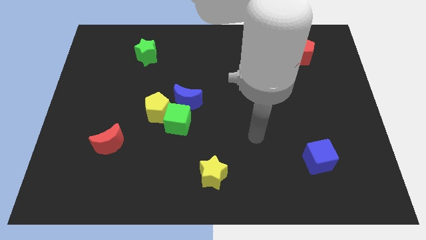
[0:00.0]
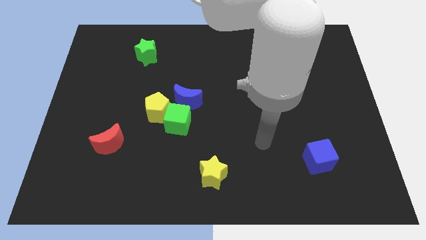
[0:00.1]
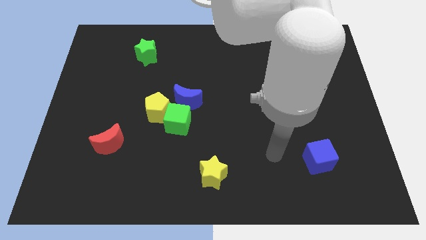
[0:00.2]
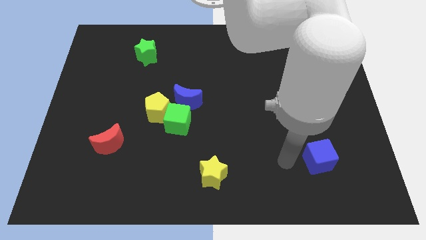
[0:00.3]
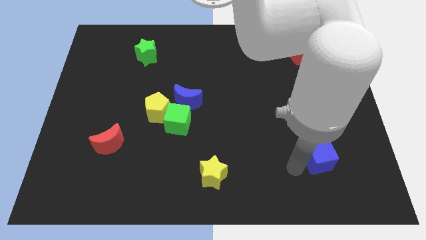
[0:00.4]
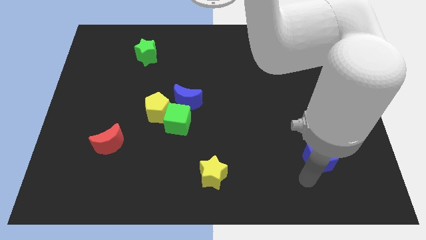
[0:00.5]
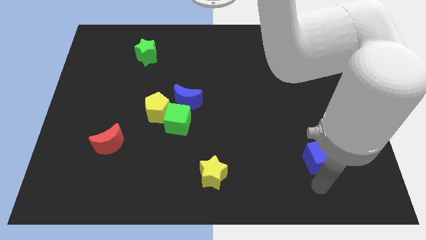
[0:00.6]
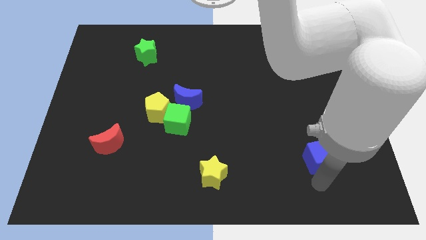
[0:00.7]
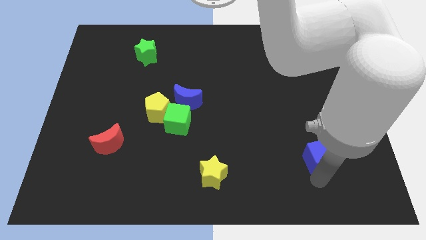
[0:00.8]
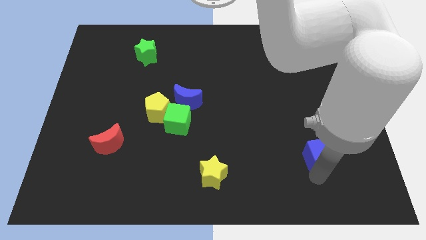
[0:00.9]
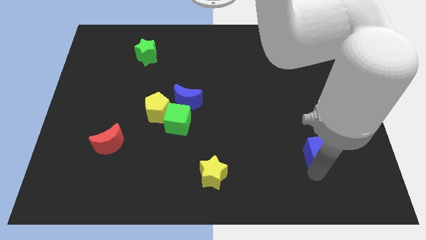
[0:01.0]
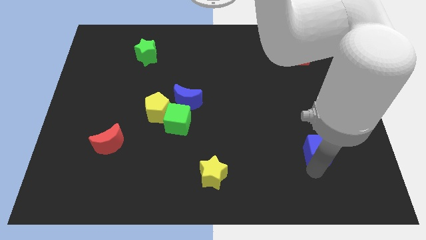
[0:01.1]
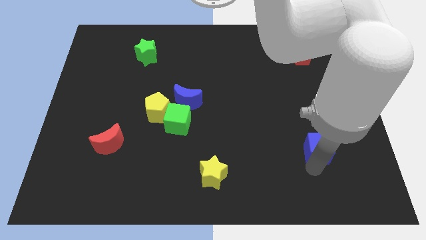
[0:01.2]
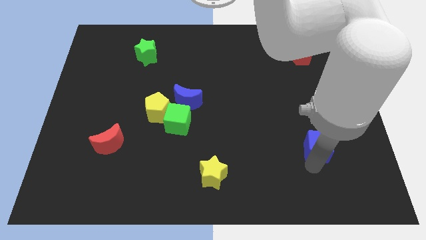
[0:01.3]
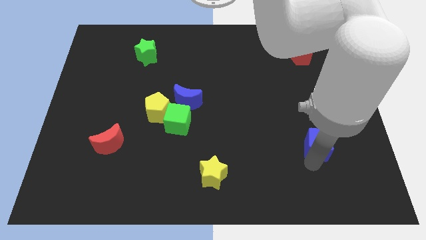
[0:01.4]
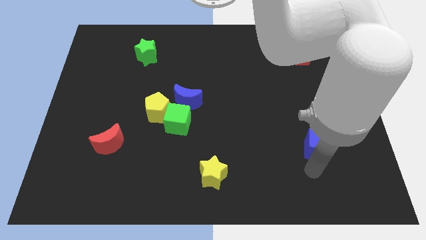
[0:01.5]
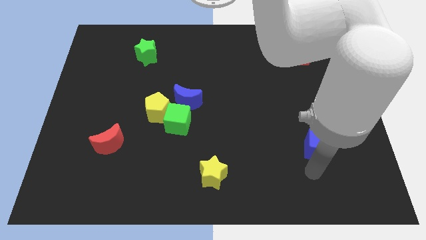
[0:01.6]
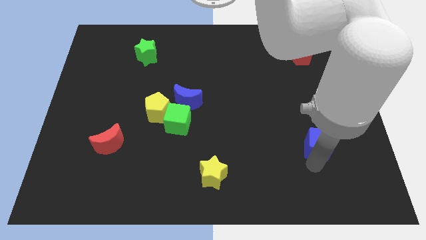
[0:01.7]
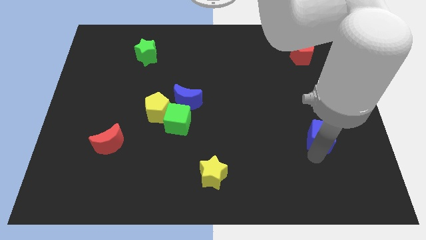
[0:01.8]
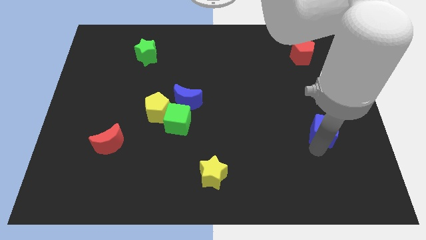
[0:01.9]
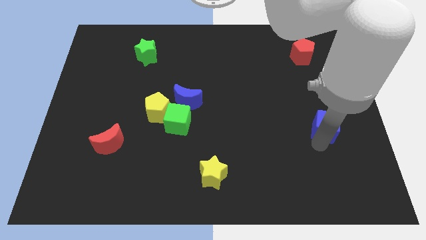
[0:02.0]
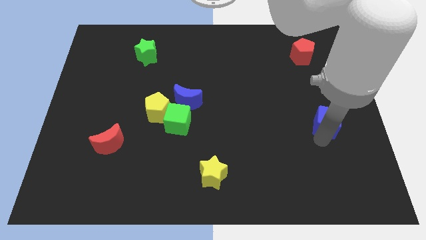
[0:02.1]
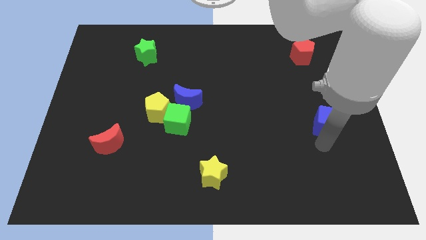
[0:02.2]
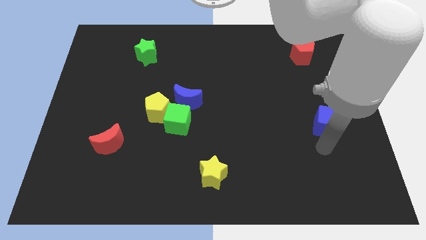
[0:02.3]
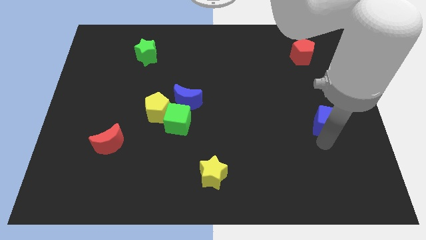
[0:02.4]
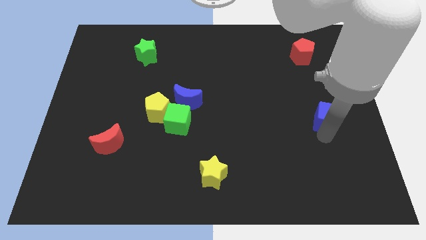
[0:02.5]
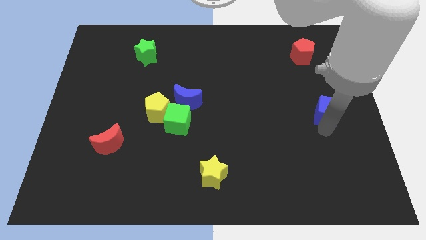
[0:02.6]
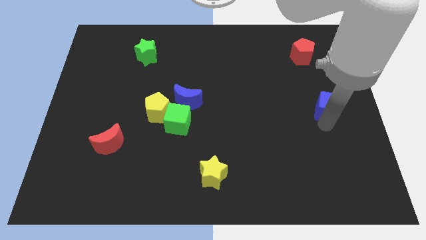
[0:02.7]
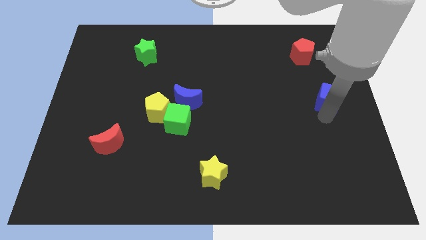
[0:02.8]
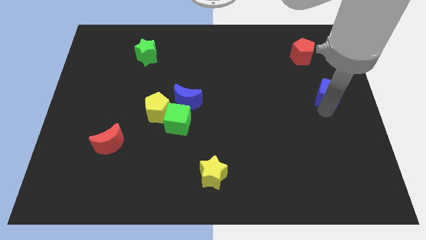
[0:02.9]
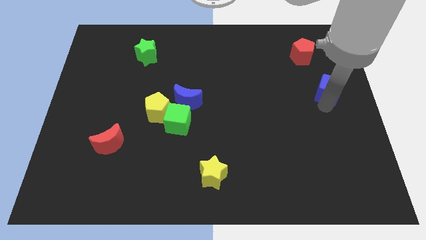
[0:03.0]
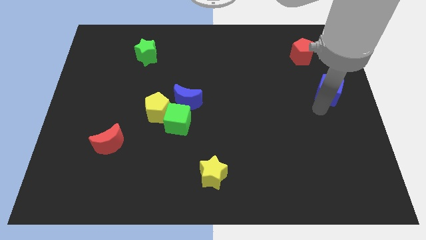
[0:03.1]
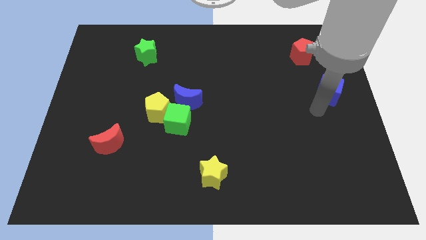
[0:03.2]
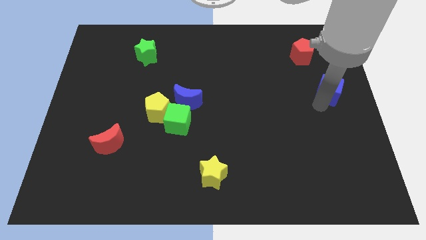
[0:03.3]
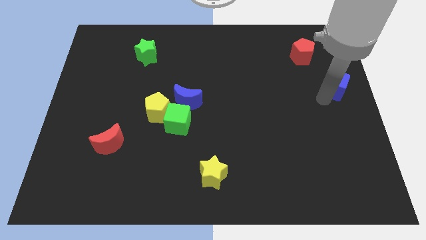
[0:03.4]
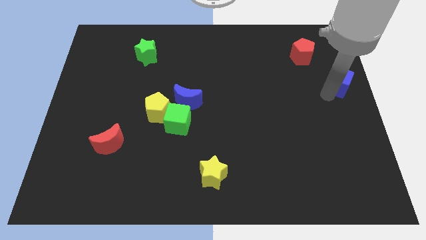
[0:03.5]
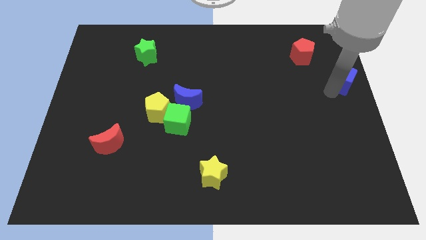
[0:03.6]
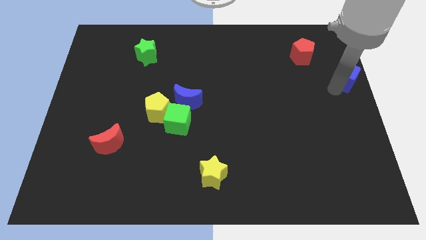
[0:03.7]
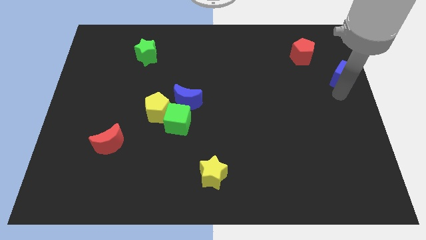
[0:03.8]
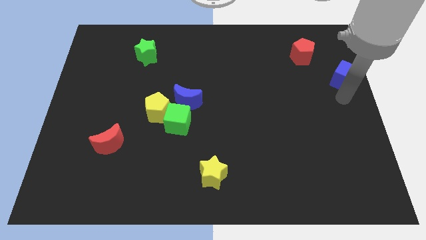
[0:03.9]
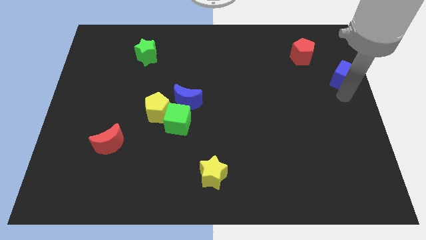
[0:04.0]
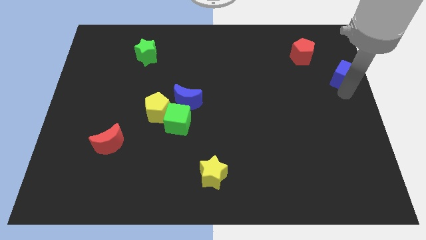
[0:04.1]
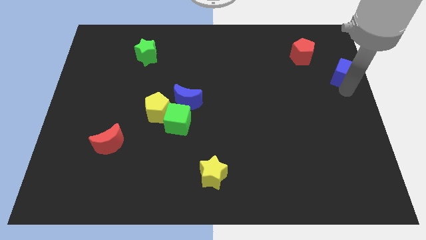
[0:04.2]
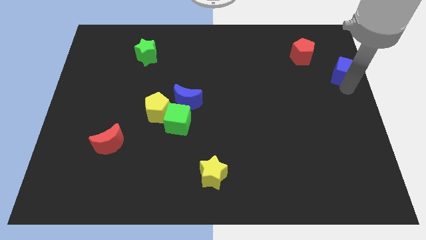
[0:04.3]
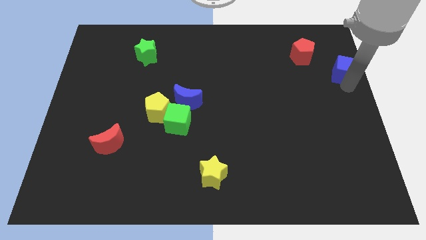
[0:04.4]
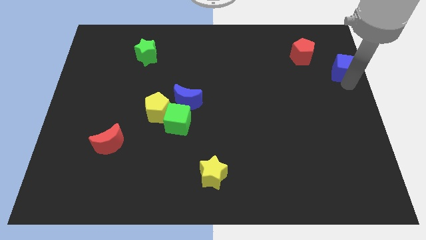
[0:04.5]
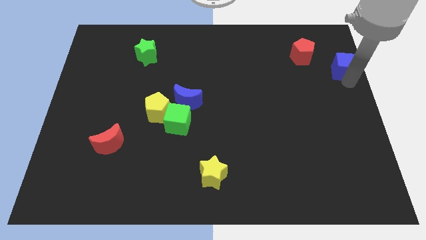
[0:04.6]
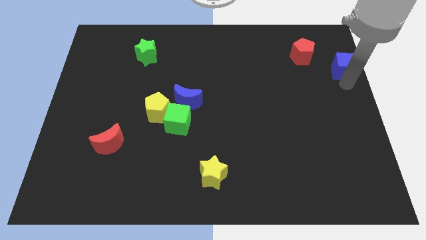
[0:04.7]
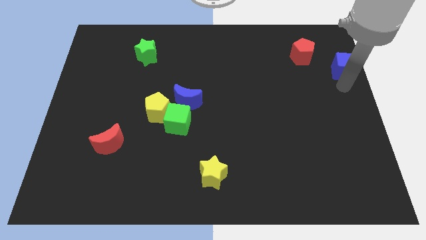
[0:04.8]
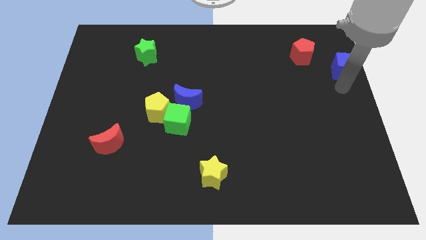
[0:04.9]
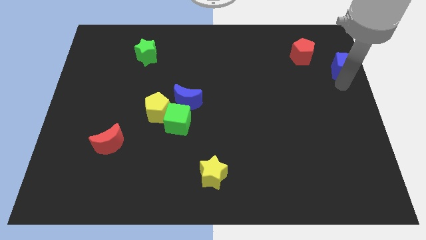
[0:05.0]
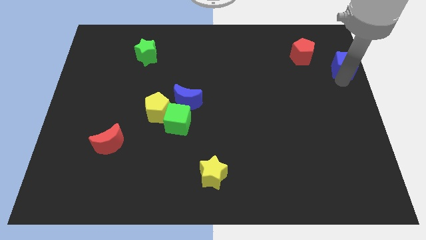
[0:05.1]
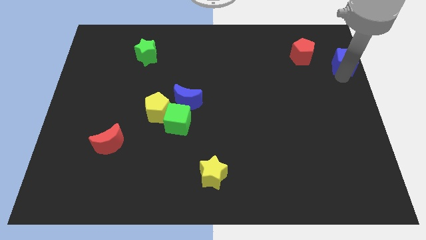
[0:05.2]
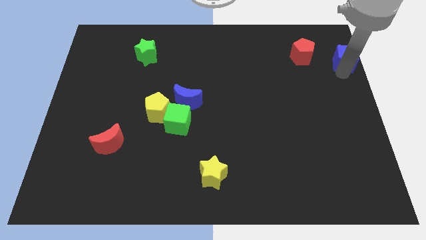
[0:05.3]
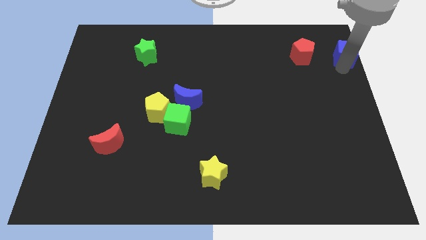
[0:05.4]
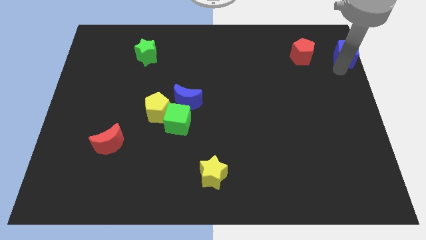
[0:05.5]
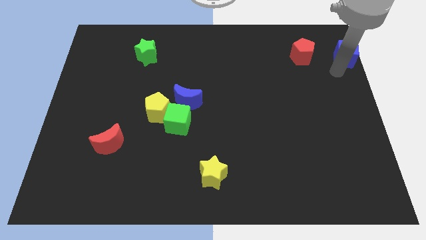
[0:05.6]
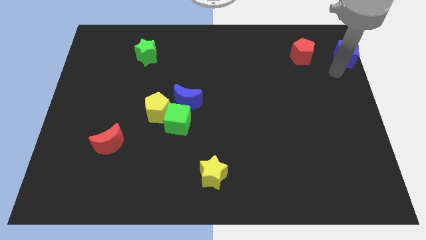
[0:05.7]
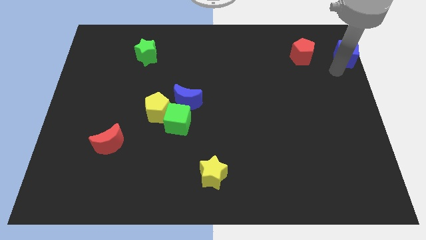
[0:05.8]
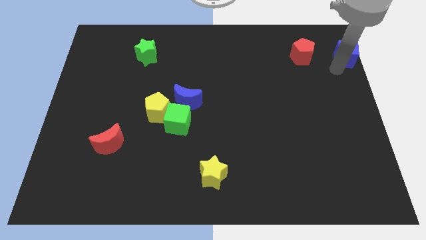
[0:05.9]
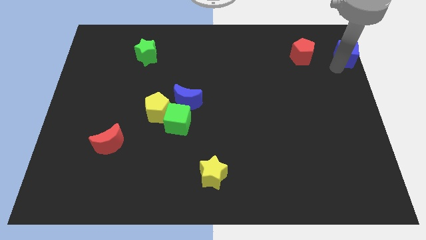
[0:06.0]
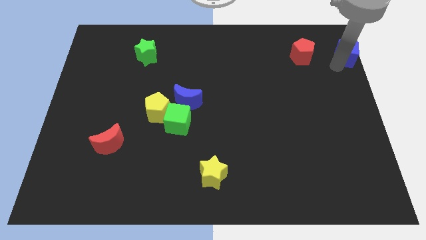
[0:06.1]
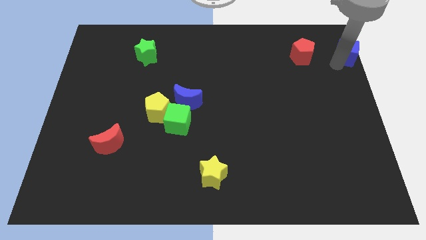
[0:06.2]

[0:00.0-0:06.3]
put the blue cube to the top right corner

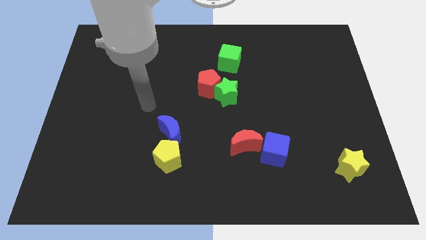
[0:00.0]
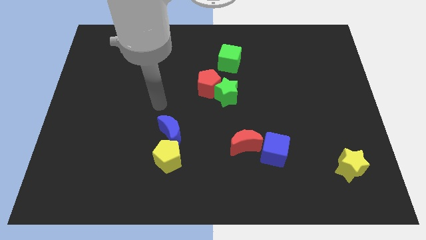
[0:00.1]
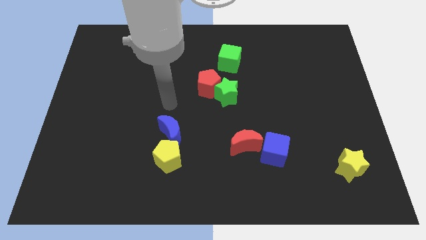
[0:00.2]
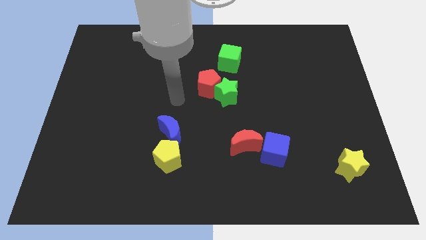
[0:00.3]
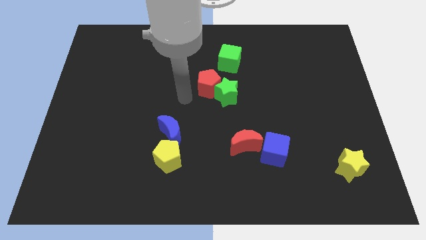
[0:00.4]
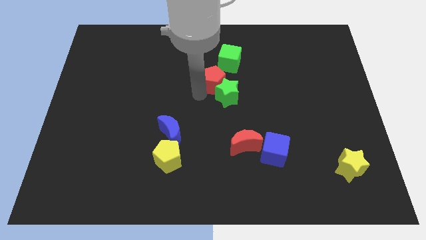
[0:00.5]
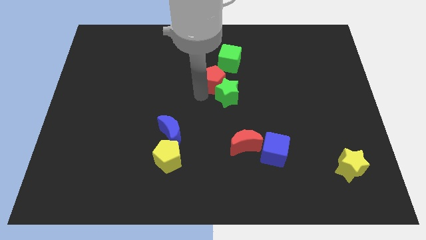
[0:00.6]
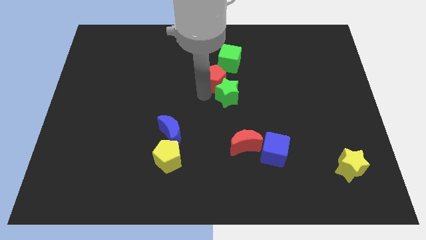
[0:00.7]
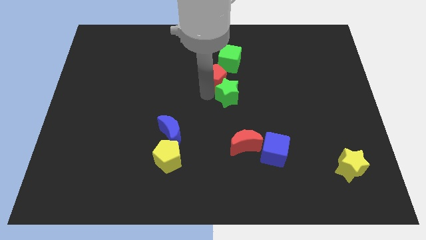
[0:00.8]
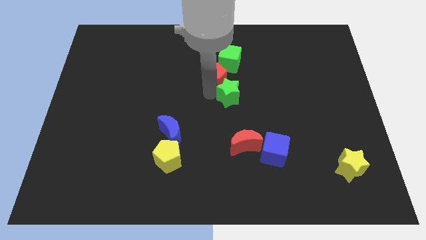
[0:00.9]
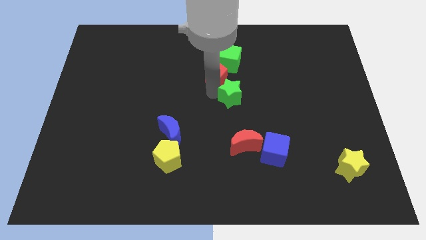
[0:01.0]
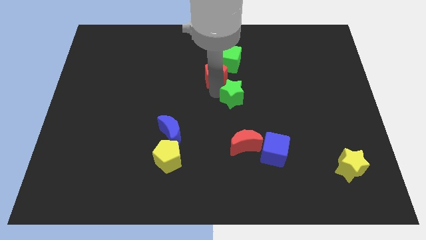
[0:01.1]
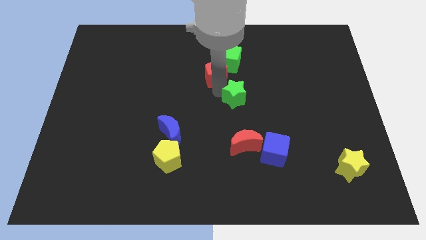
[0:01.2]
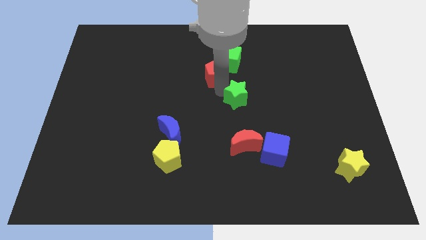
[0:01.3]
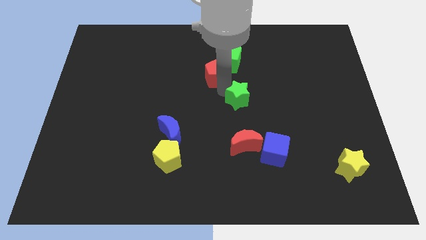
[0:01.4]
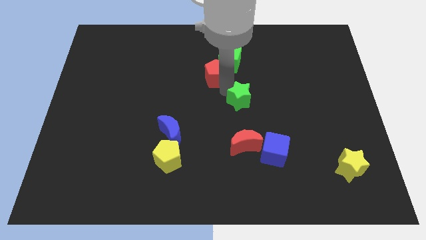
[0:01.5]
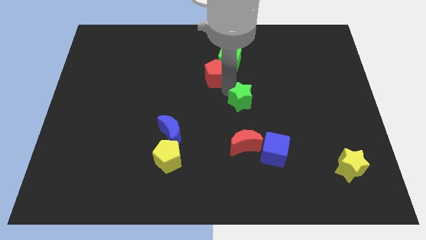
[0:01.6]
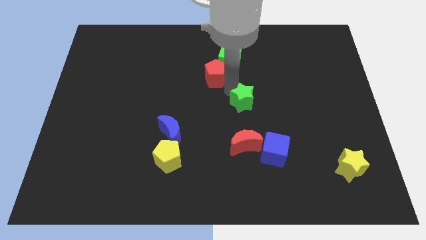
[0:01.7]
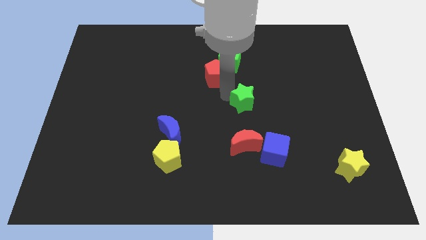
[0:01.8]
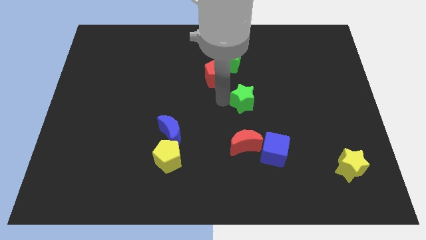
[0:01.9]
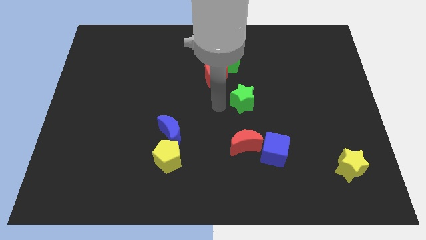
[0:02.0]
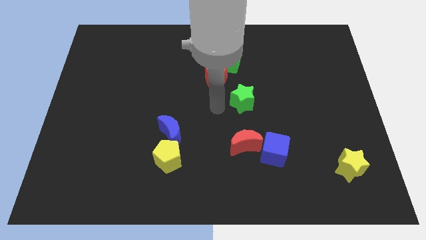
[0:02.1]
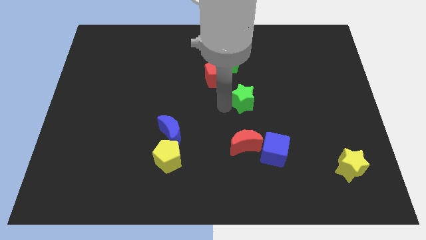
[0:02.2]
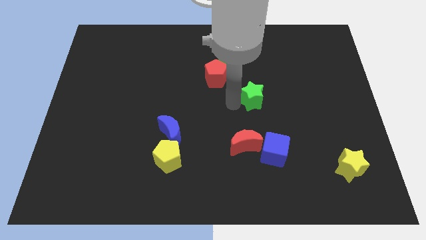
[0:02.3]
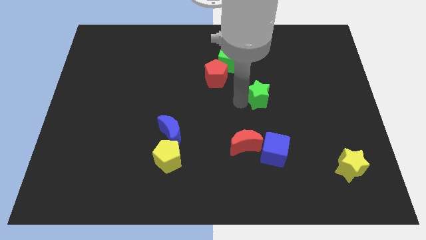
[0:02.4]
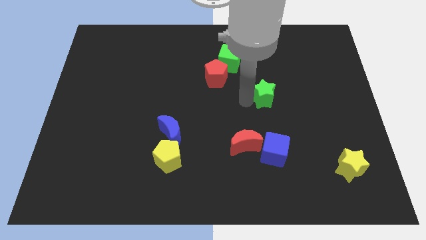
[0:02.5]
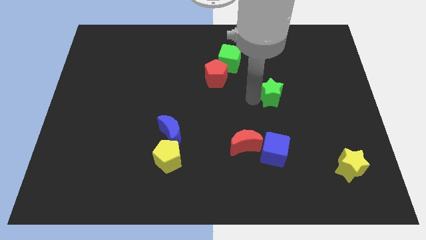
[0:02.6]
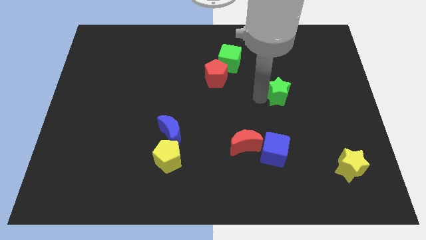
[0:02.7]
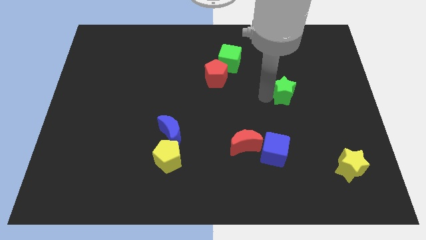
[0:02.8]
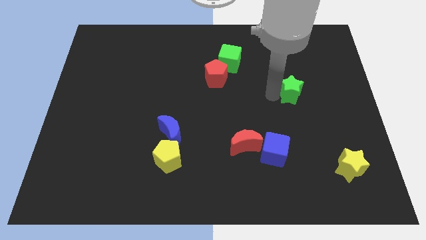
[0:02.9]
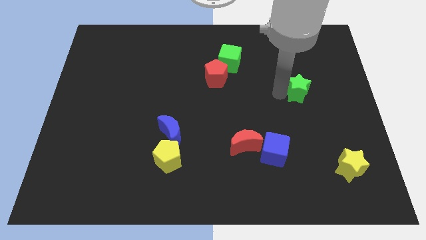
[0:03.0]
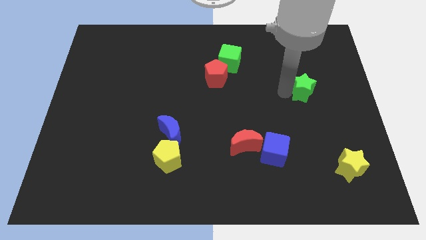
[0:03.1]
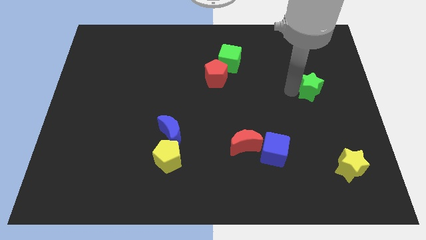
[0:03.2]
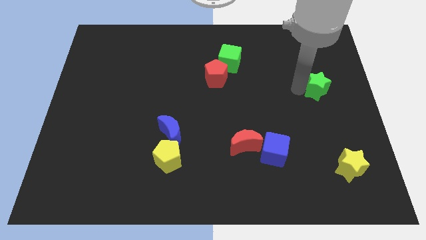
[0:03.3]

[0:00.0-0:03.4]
move the green star to the right side of the board
